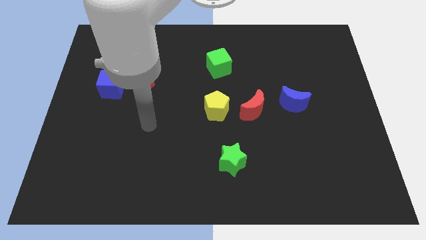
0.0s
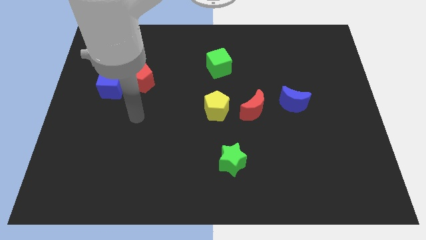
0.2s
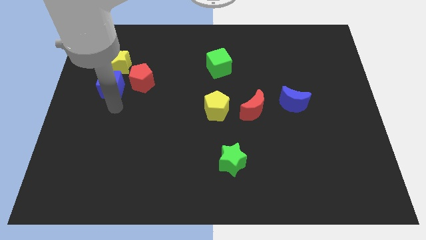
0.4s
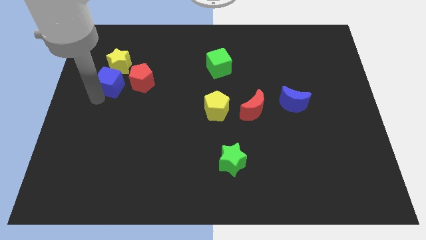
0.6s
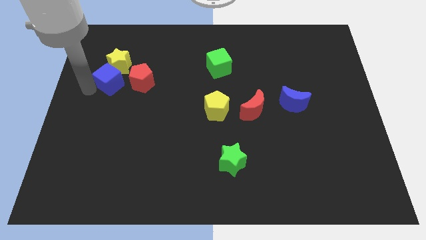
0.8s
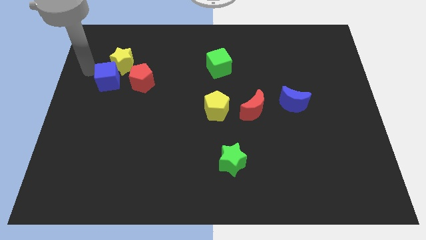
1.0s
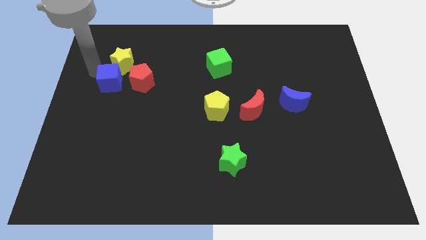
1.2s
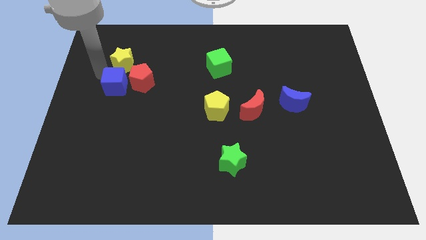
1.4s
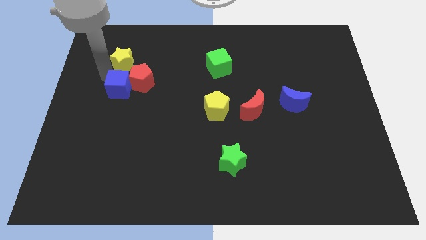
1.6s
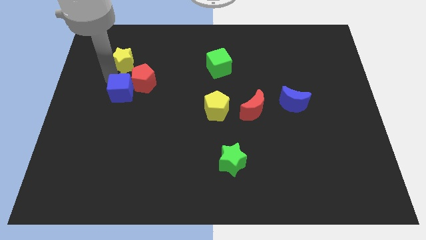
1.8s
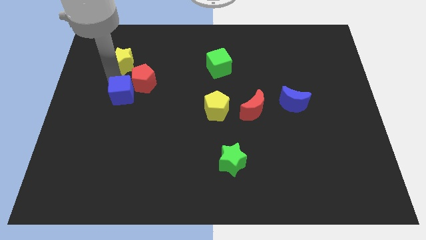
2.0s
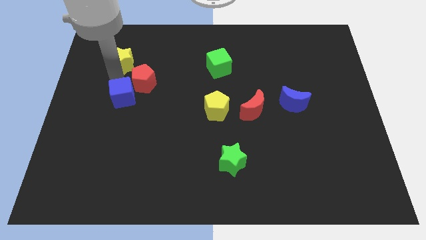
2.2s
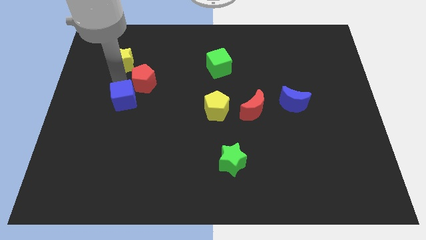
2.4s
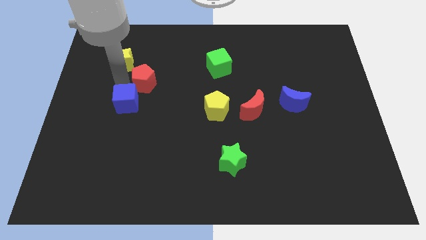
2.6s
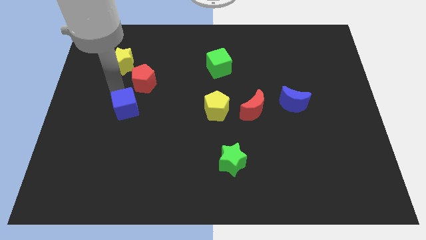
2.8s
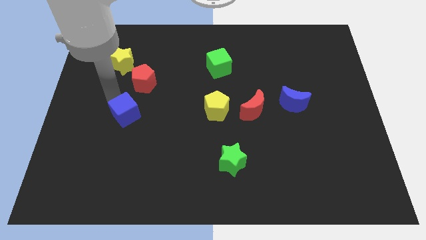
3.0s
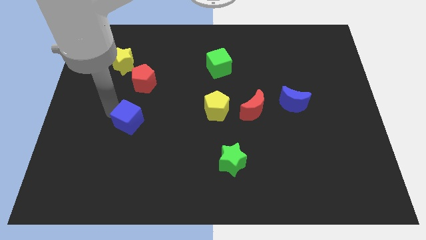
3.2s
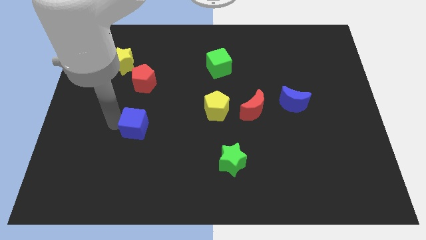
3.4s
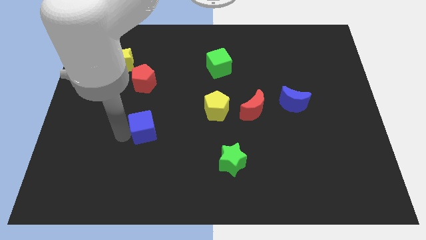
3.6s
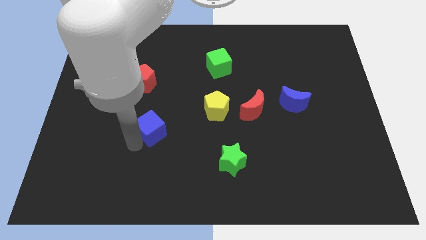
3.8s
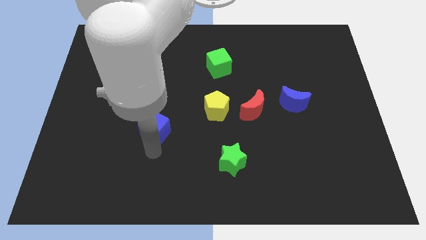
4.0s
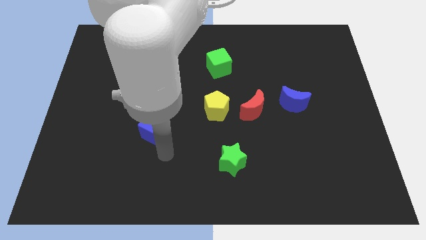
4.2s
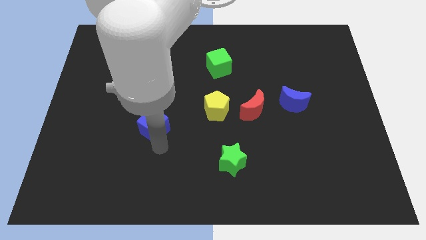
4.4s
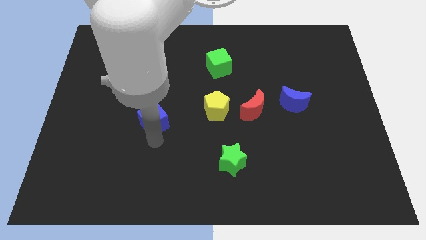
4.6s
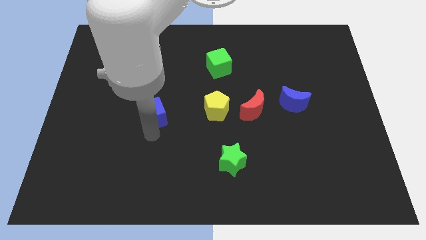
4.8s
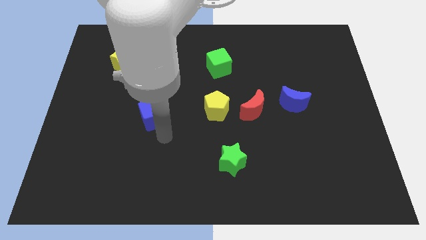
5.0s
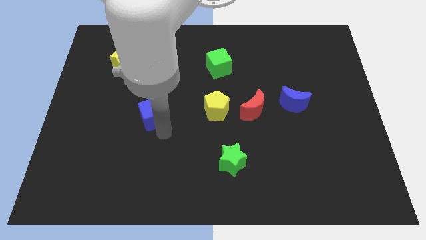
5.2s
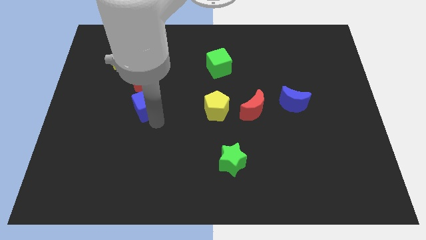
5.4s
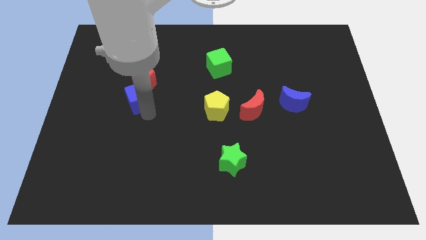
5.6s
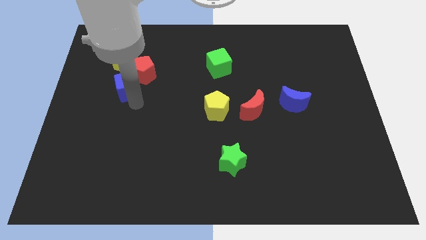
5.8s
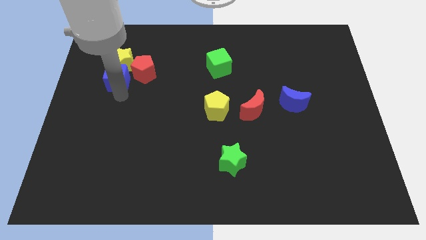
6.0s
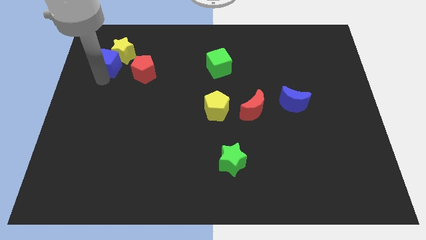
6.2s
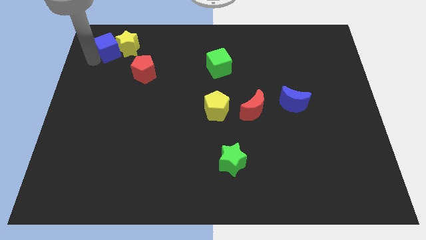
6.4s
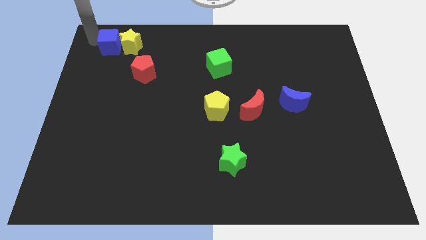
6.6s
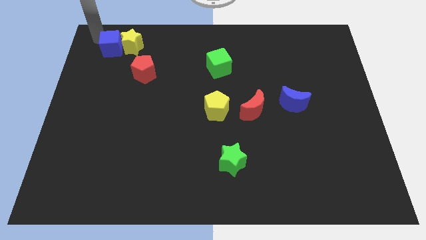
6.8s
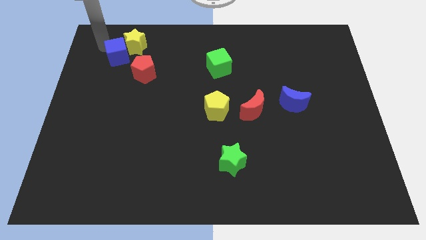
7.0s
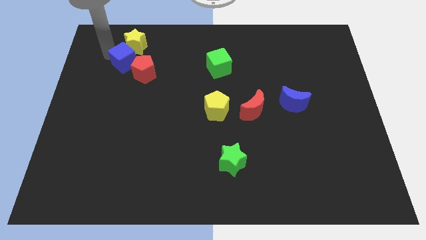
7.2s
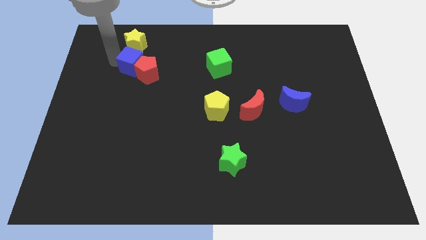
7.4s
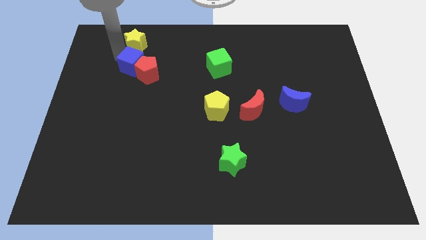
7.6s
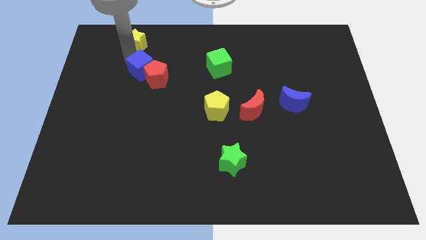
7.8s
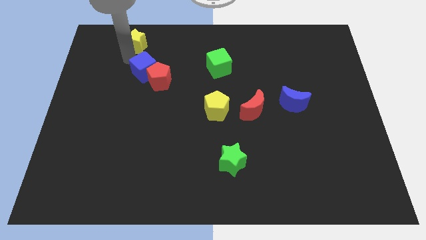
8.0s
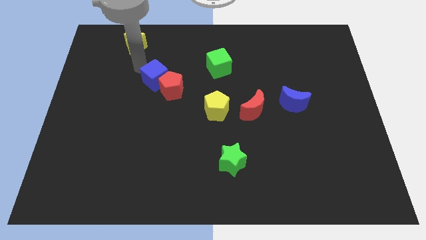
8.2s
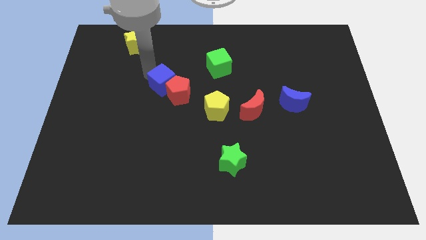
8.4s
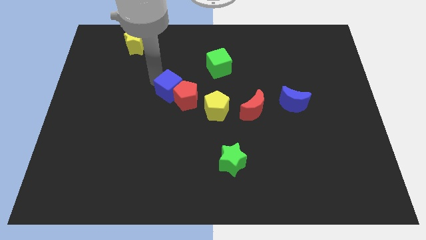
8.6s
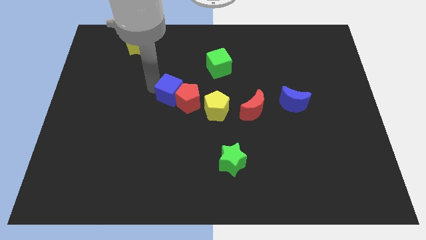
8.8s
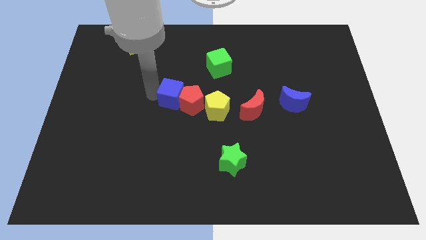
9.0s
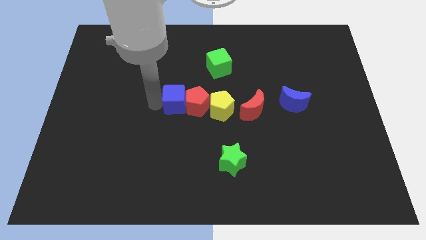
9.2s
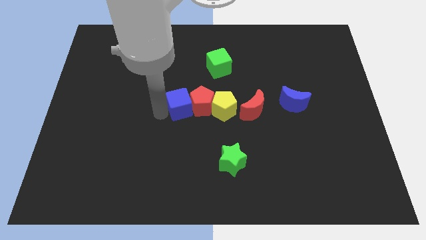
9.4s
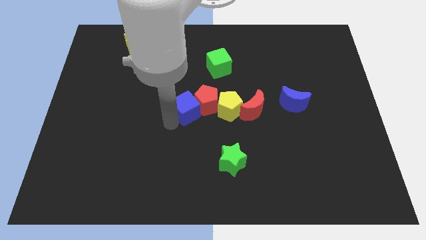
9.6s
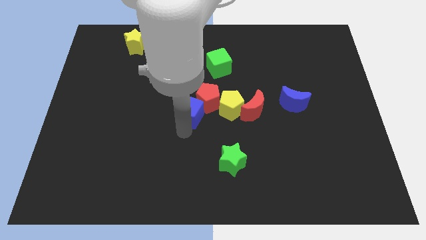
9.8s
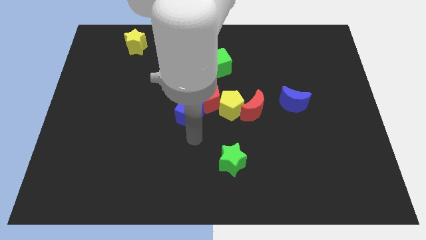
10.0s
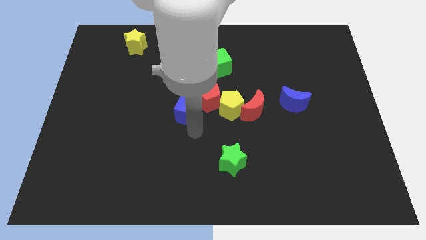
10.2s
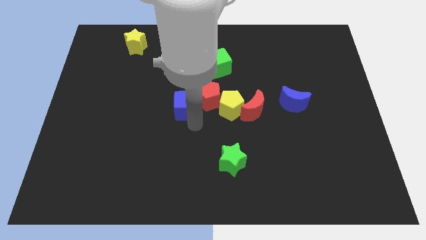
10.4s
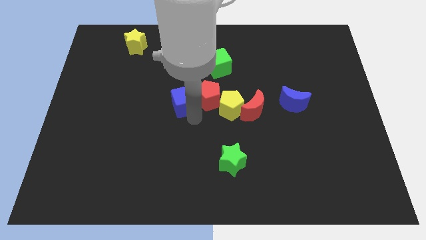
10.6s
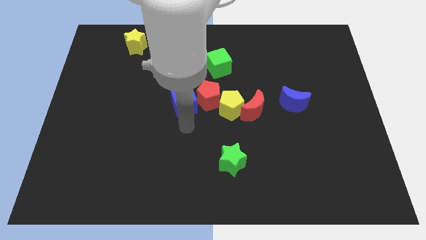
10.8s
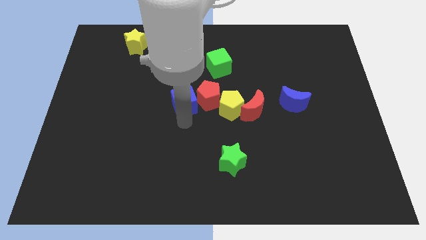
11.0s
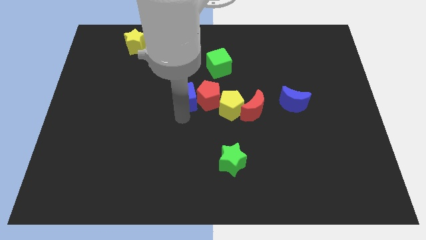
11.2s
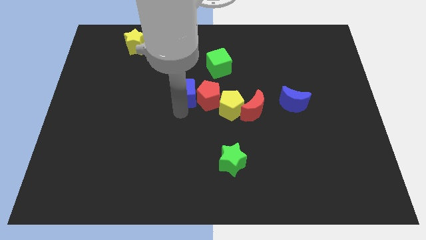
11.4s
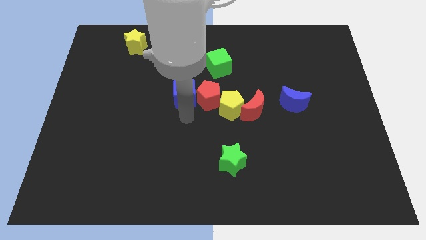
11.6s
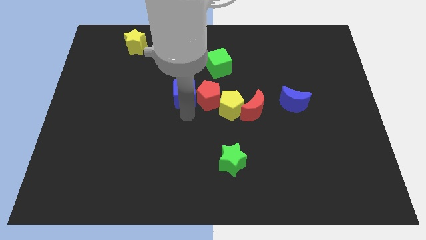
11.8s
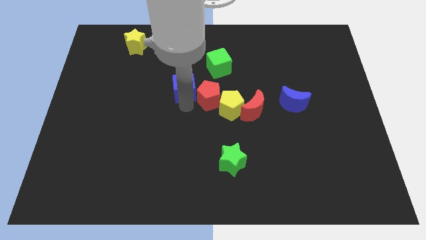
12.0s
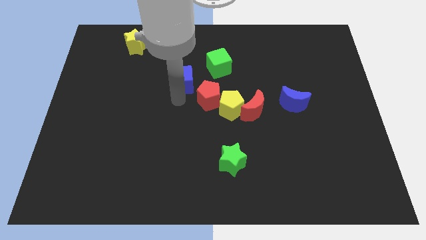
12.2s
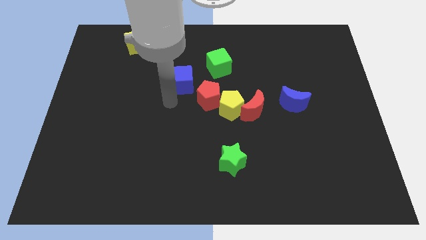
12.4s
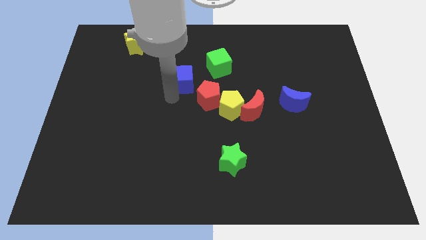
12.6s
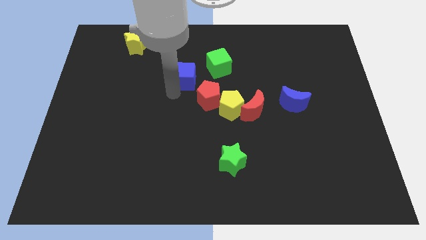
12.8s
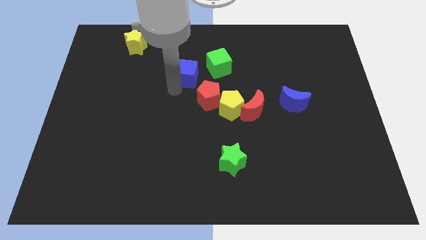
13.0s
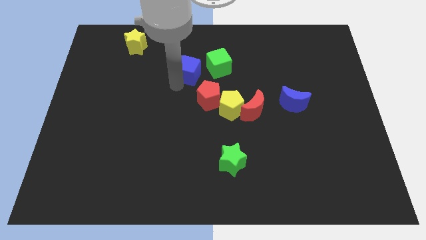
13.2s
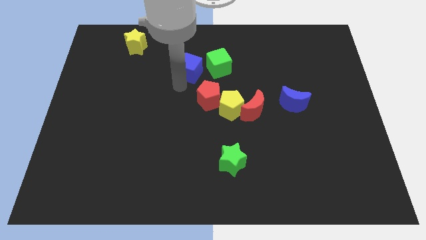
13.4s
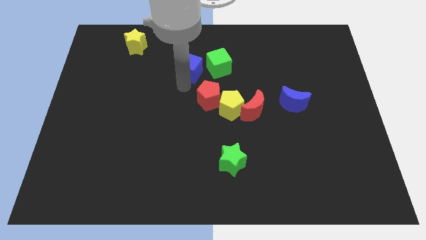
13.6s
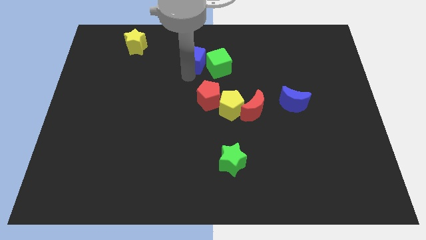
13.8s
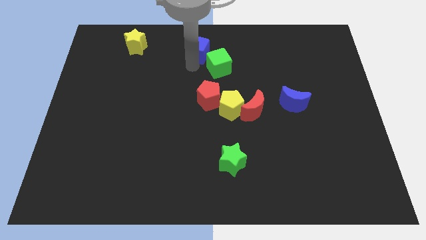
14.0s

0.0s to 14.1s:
put the blue cube to the top side
